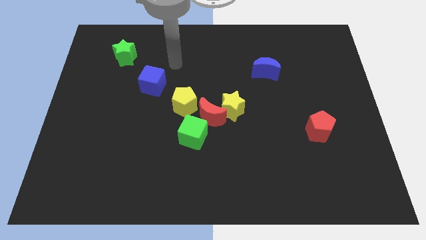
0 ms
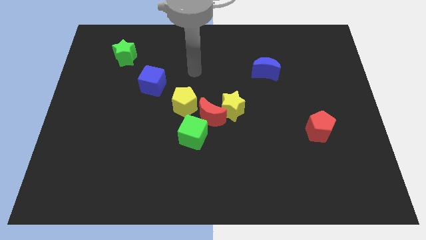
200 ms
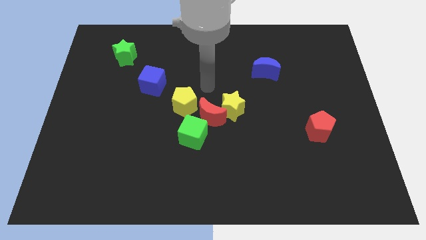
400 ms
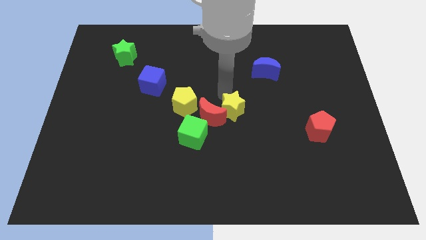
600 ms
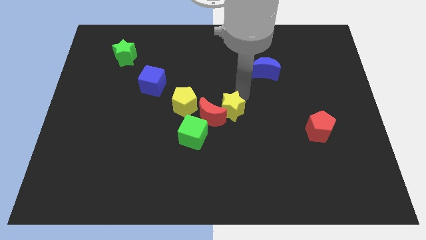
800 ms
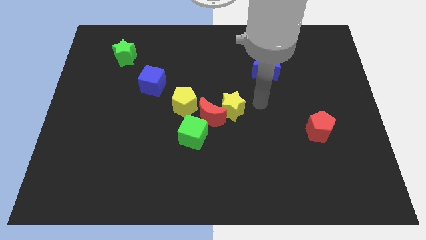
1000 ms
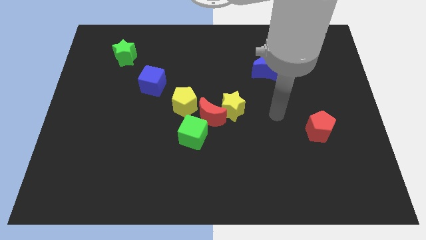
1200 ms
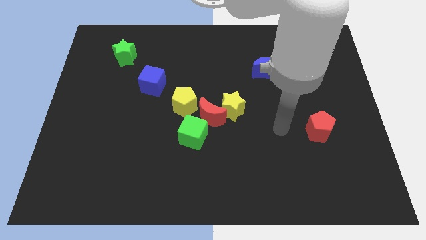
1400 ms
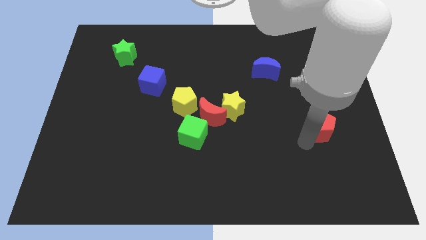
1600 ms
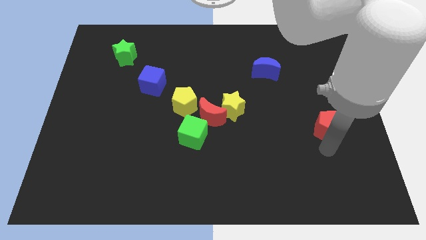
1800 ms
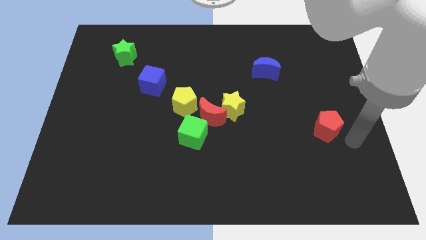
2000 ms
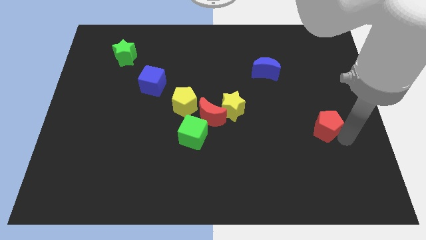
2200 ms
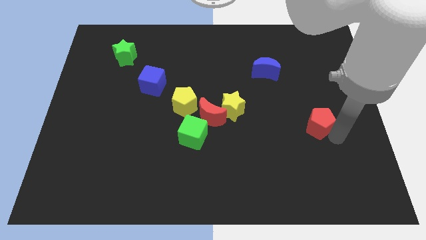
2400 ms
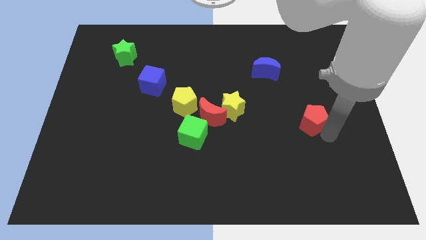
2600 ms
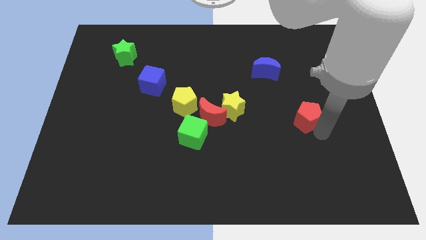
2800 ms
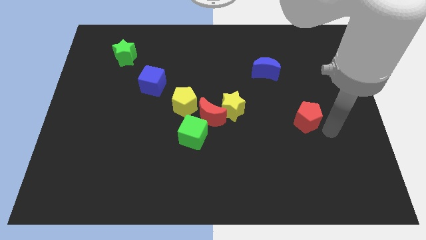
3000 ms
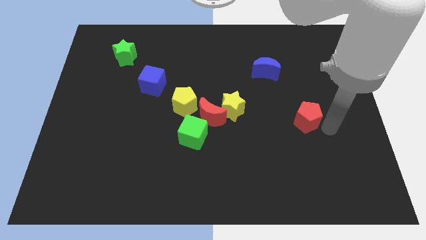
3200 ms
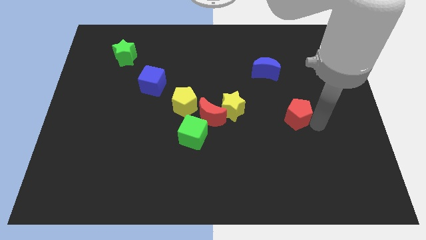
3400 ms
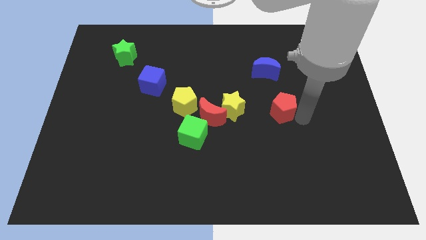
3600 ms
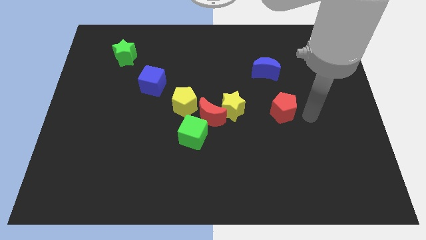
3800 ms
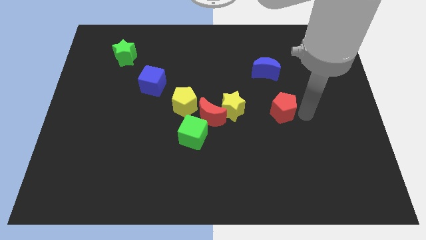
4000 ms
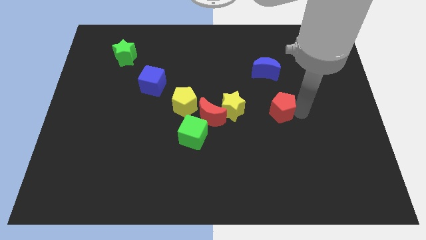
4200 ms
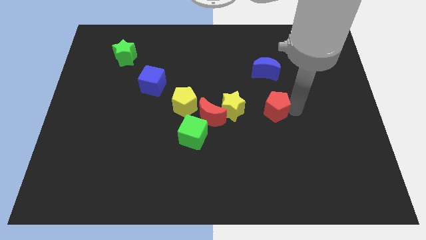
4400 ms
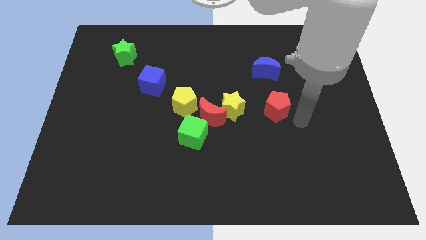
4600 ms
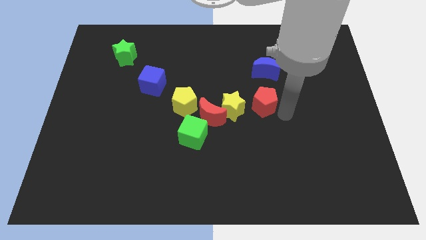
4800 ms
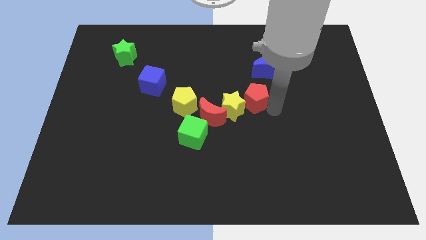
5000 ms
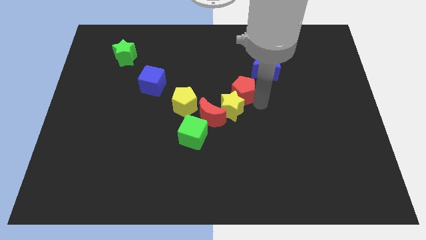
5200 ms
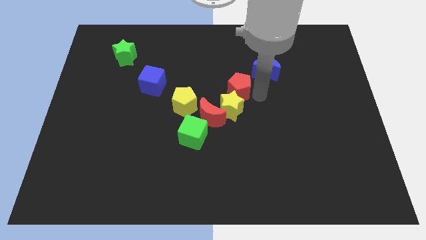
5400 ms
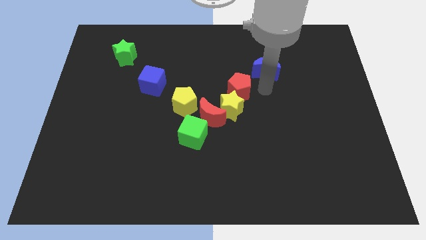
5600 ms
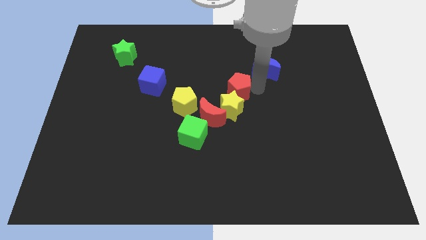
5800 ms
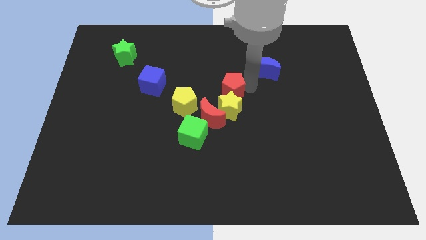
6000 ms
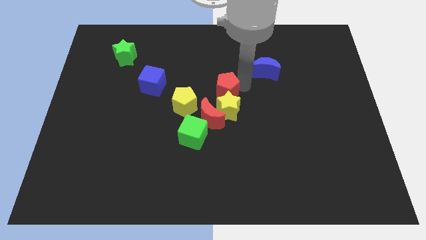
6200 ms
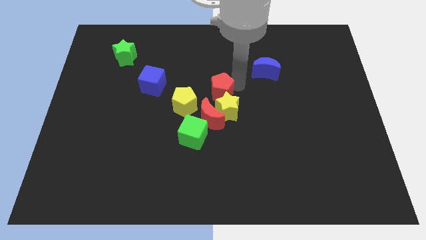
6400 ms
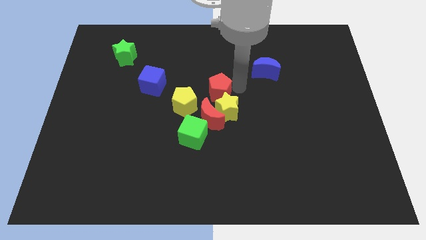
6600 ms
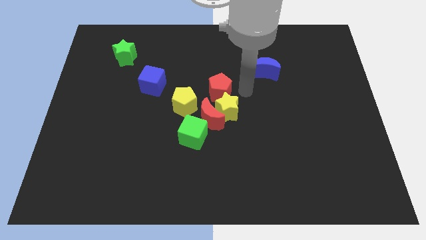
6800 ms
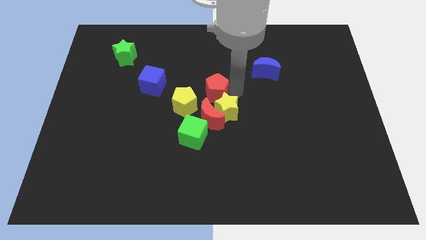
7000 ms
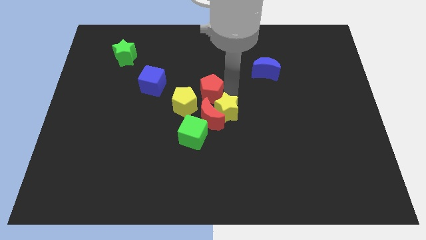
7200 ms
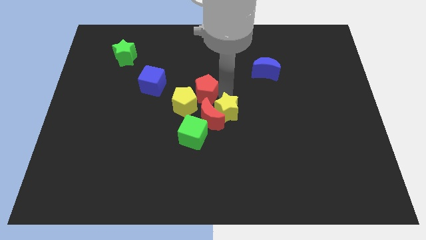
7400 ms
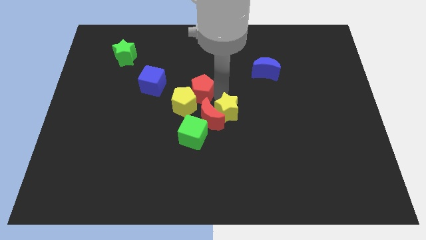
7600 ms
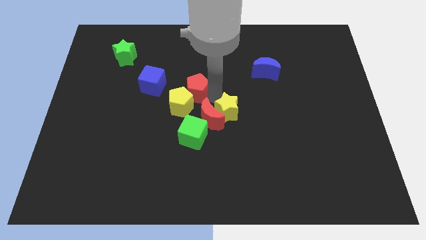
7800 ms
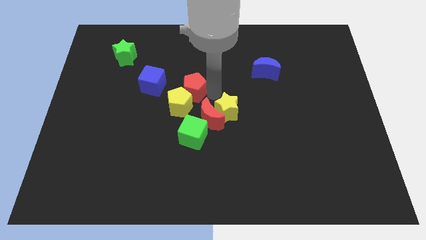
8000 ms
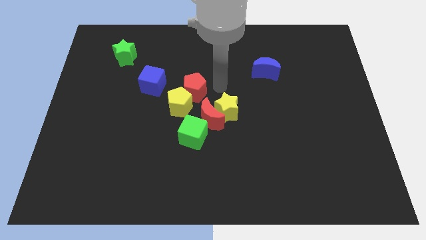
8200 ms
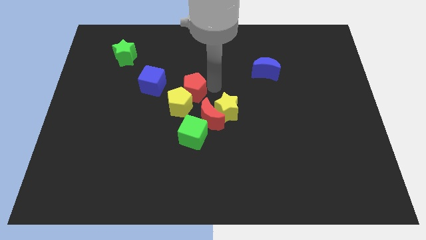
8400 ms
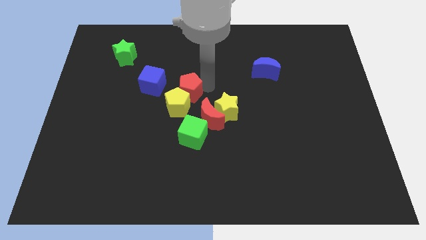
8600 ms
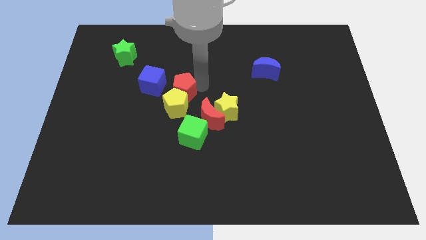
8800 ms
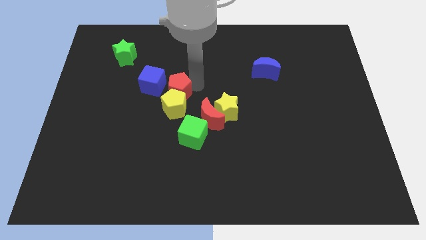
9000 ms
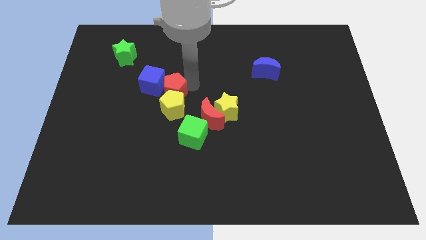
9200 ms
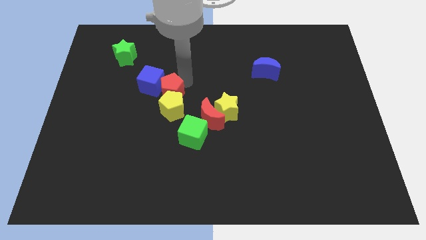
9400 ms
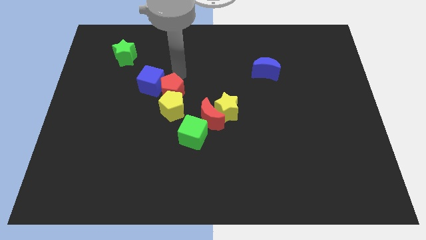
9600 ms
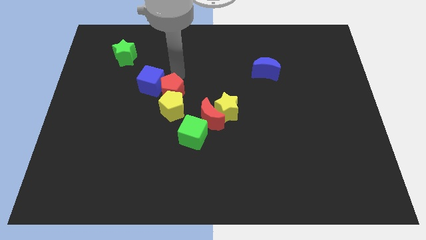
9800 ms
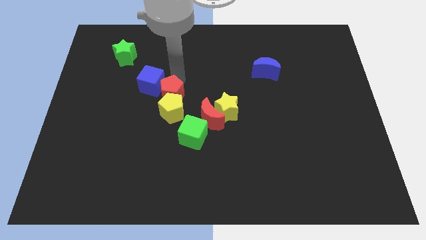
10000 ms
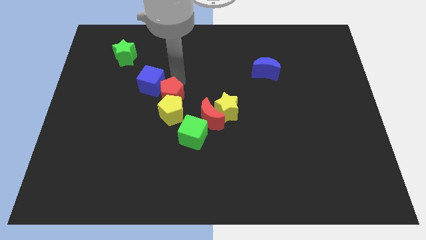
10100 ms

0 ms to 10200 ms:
move the red pentagon to the left of the yellow star

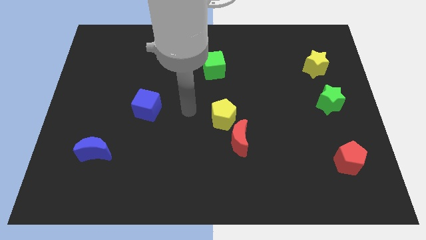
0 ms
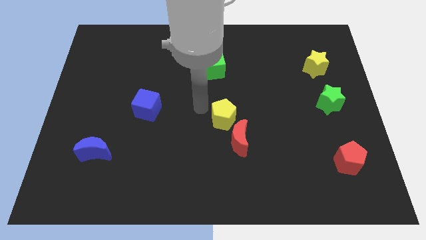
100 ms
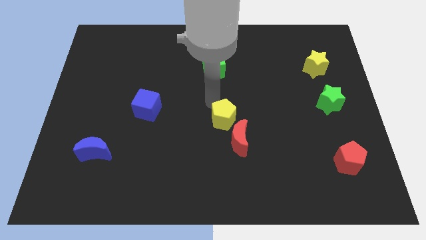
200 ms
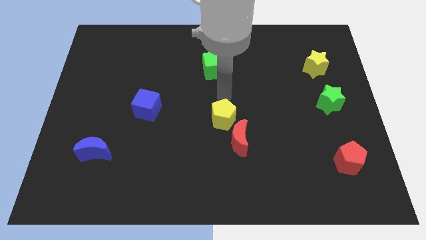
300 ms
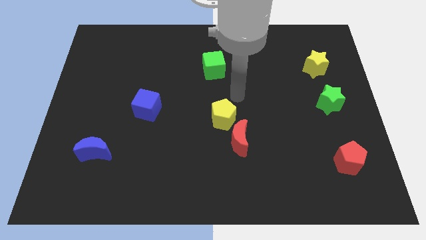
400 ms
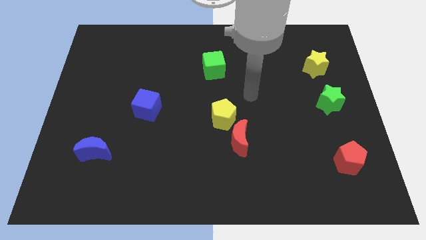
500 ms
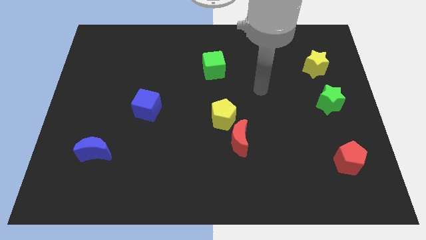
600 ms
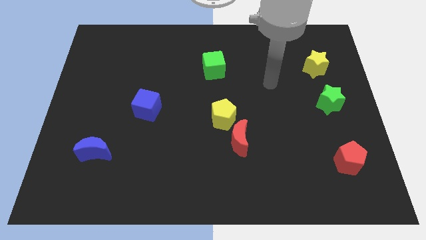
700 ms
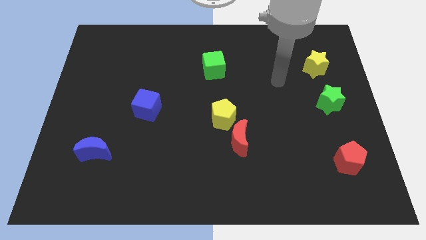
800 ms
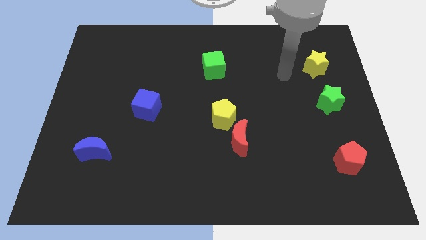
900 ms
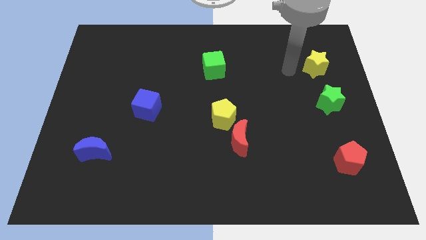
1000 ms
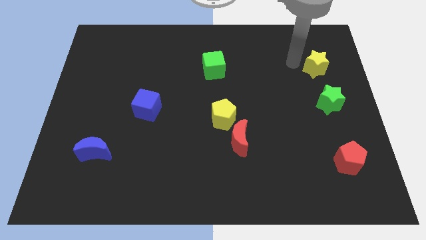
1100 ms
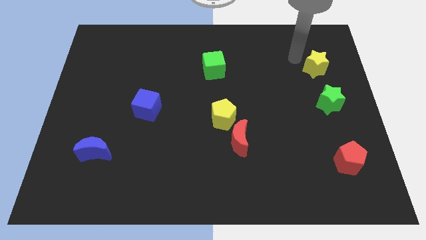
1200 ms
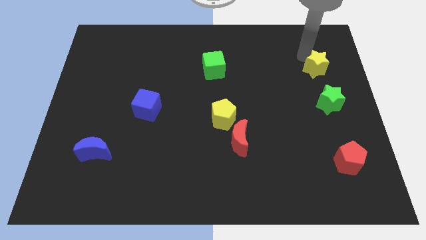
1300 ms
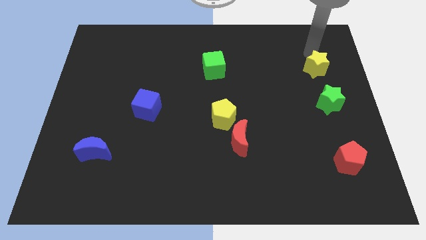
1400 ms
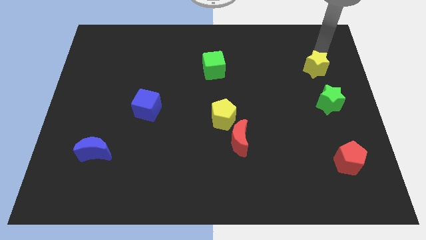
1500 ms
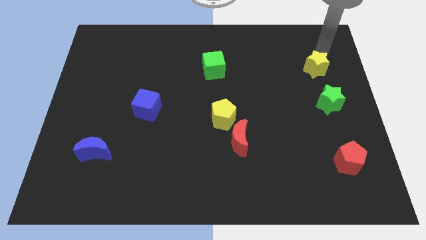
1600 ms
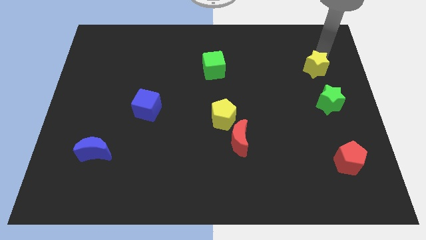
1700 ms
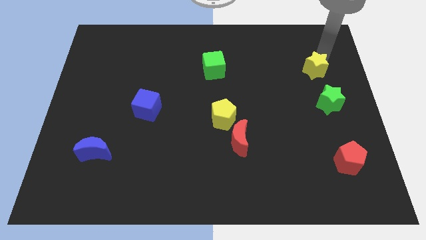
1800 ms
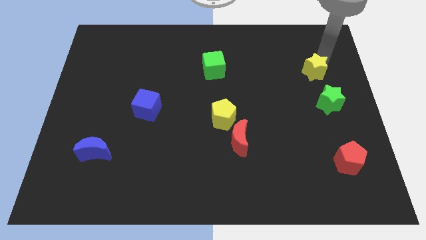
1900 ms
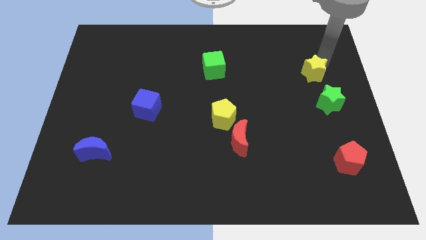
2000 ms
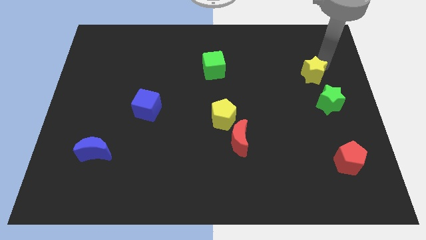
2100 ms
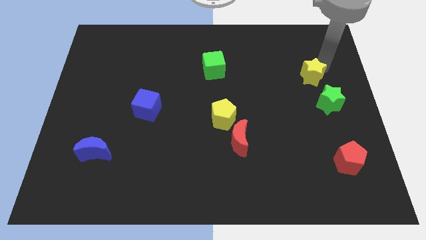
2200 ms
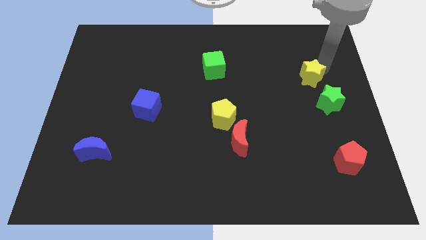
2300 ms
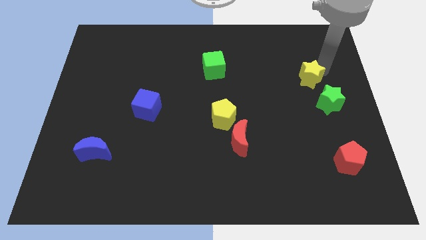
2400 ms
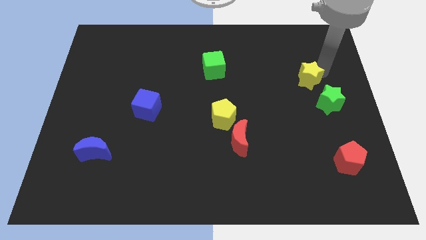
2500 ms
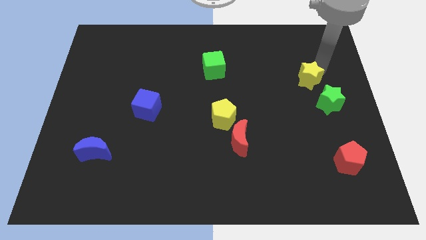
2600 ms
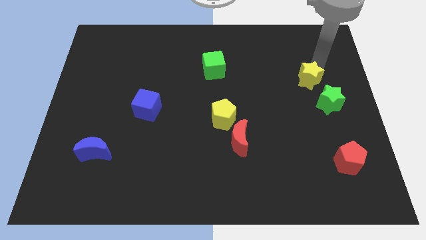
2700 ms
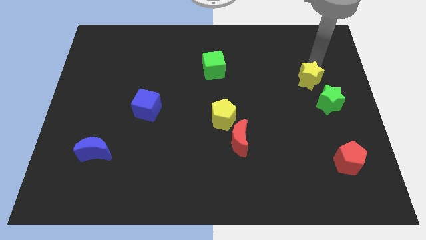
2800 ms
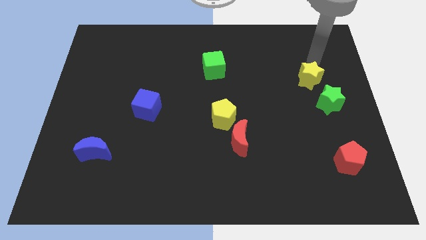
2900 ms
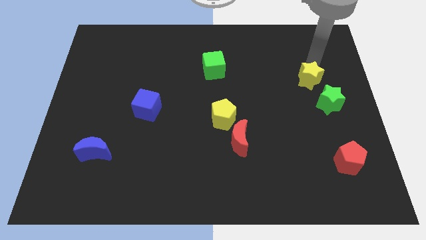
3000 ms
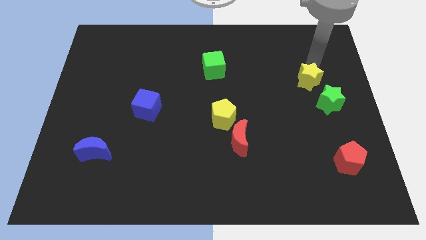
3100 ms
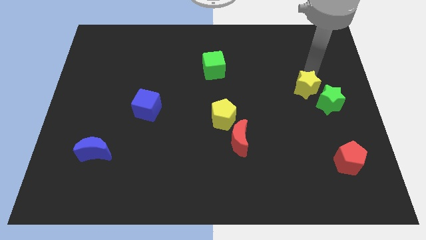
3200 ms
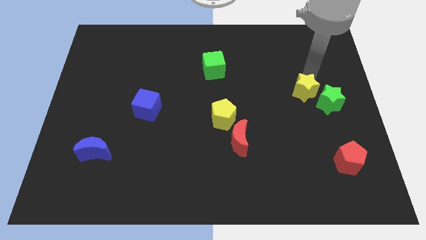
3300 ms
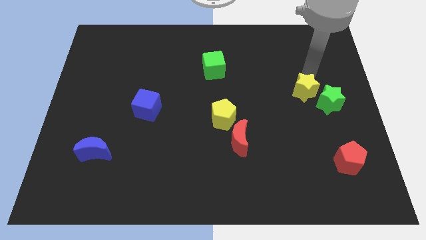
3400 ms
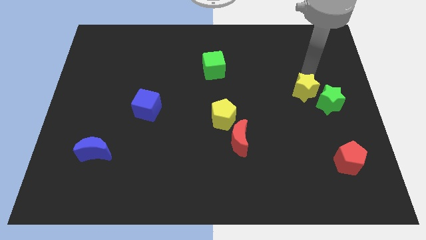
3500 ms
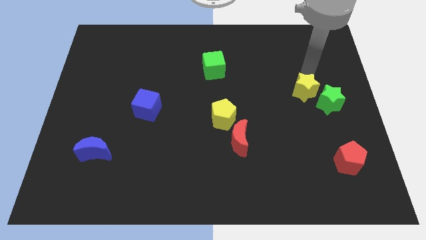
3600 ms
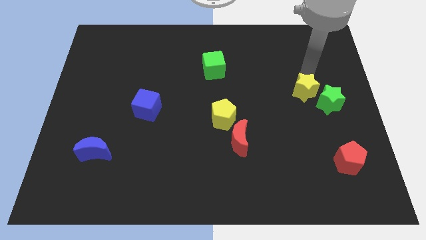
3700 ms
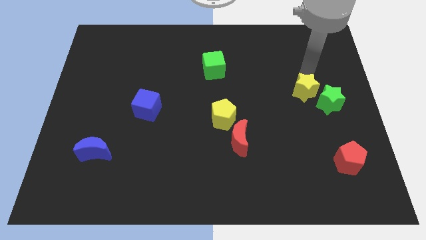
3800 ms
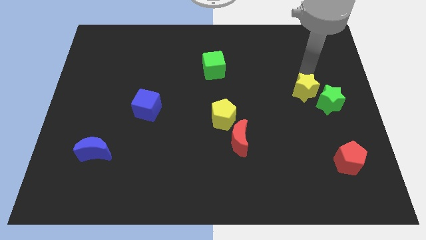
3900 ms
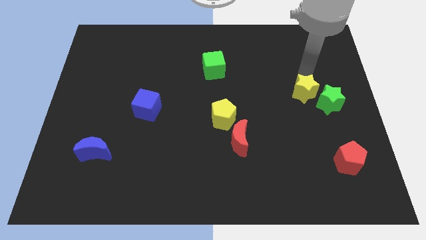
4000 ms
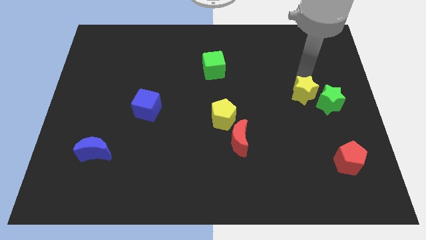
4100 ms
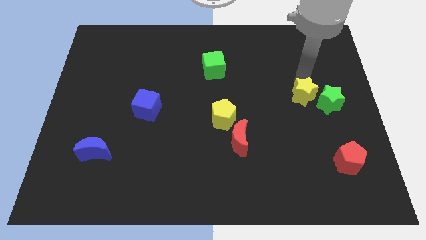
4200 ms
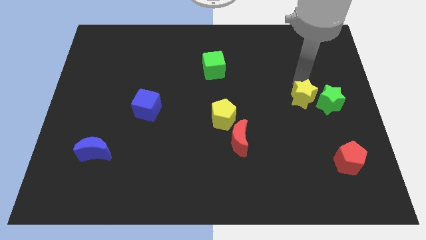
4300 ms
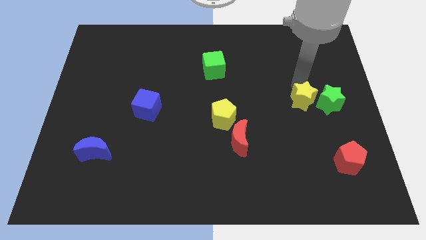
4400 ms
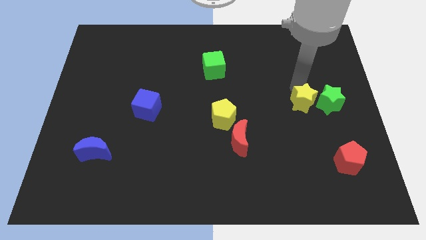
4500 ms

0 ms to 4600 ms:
push the yellow star to the bottom left of the green star
